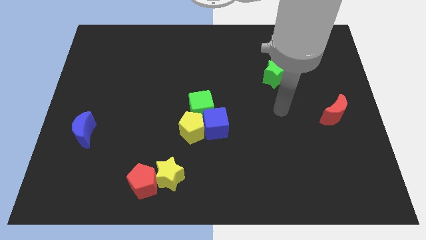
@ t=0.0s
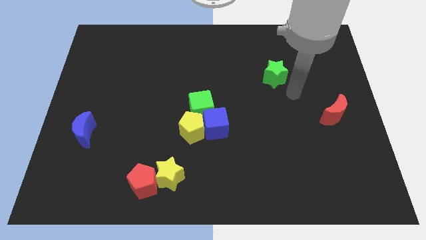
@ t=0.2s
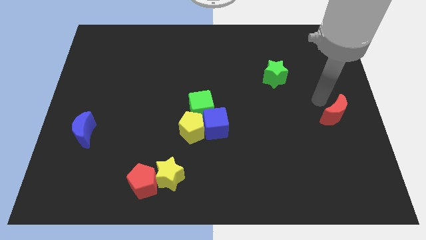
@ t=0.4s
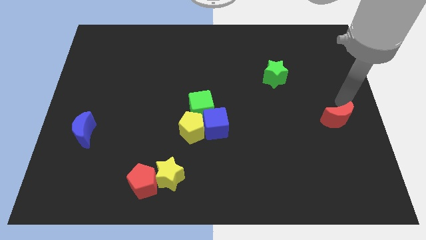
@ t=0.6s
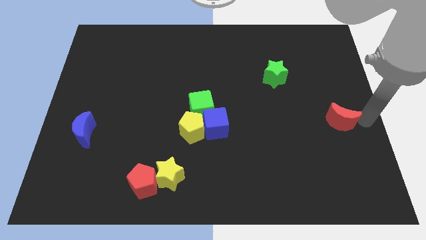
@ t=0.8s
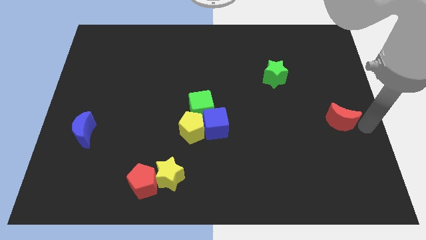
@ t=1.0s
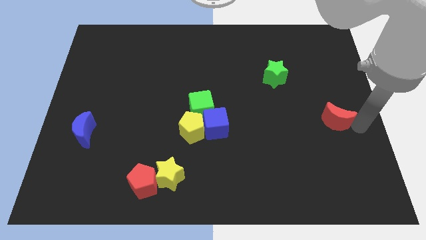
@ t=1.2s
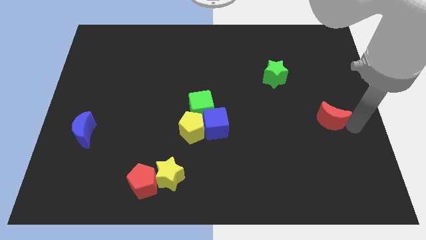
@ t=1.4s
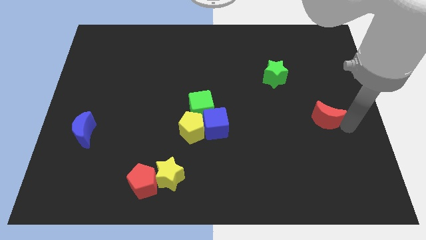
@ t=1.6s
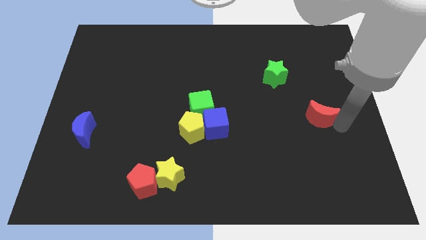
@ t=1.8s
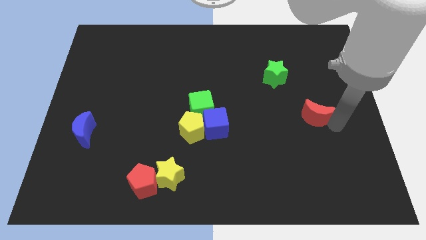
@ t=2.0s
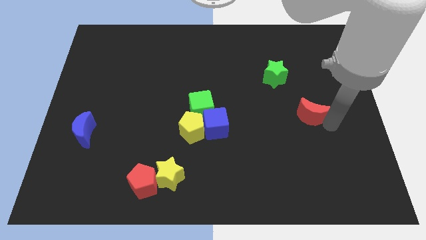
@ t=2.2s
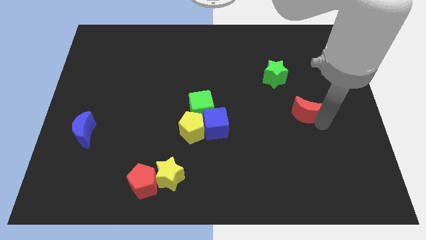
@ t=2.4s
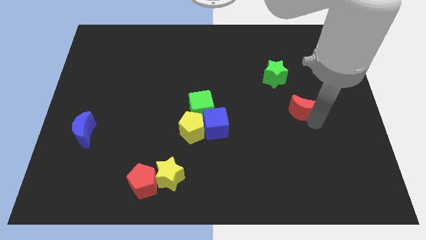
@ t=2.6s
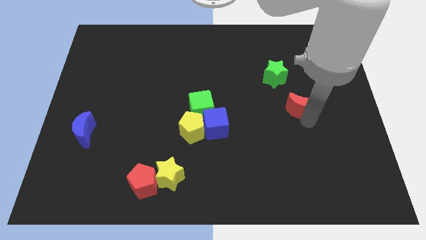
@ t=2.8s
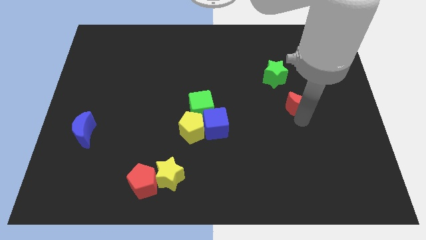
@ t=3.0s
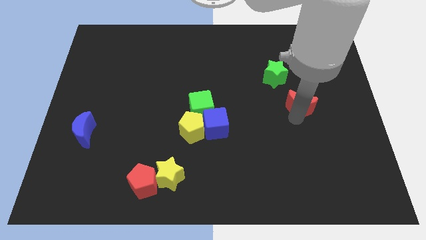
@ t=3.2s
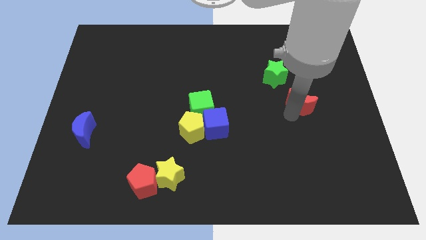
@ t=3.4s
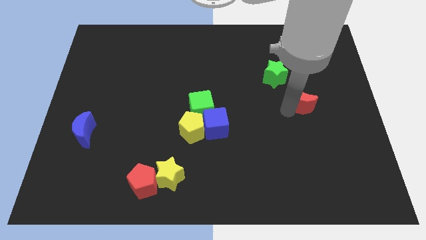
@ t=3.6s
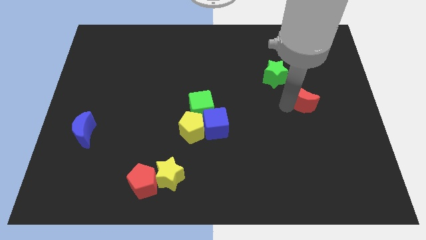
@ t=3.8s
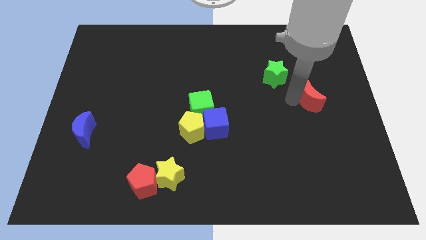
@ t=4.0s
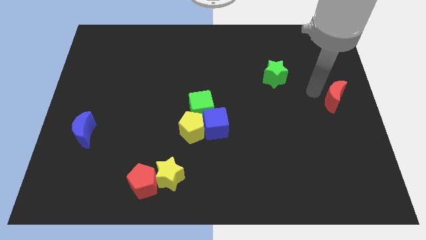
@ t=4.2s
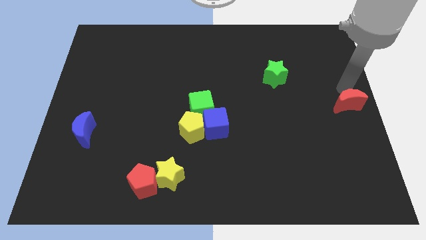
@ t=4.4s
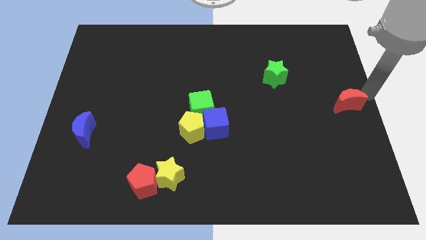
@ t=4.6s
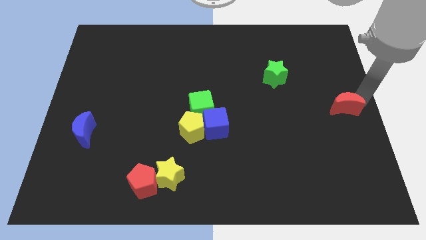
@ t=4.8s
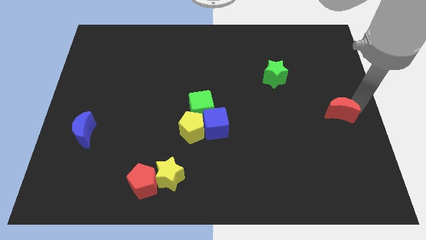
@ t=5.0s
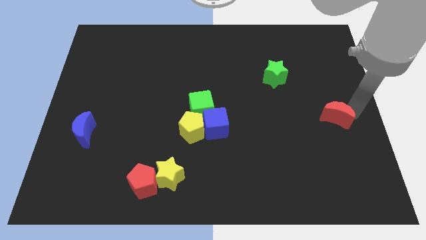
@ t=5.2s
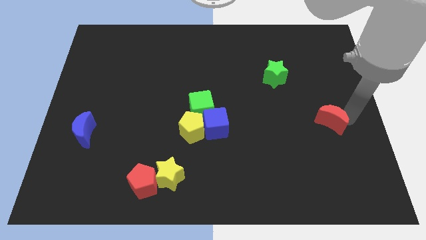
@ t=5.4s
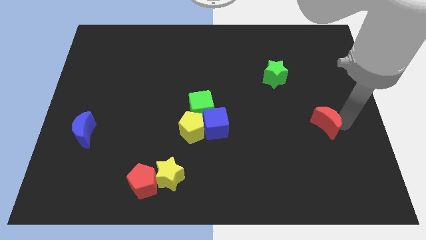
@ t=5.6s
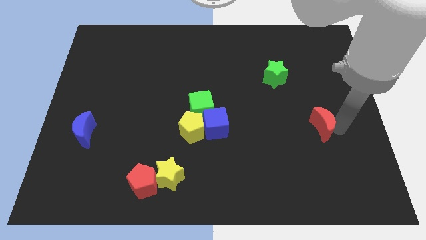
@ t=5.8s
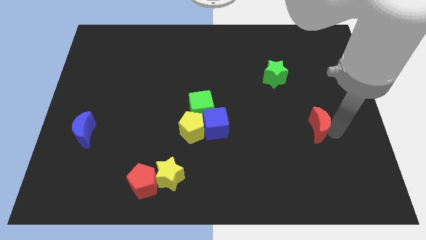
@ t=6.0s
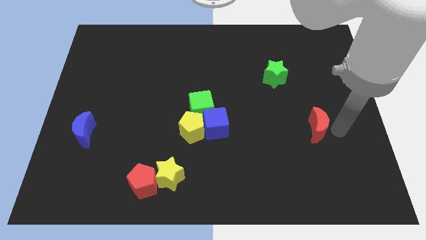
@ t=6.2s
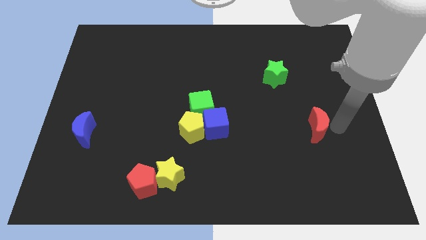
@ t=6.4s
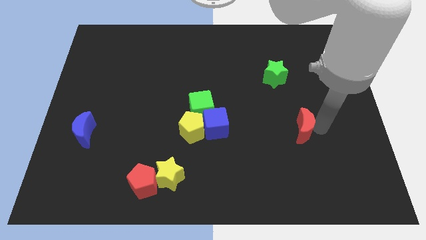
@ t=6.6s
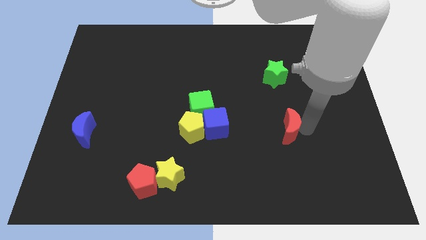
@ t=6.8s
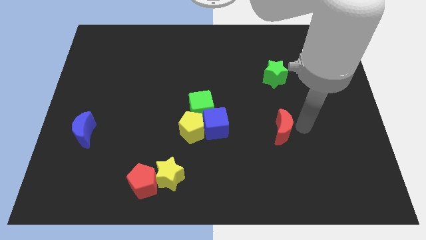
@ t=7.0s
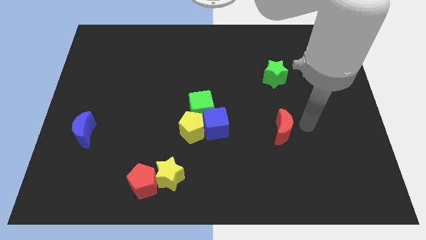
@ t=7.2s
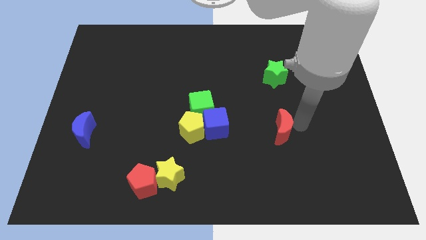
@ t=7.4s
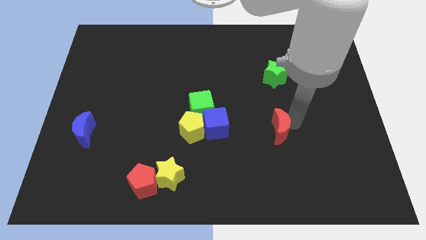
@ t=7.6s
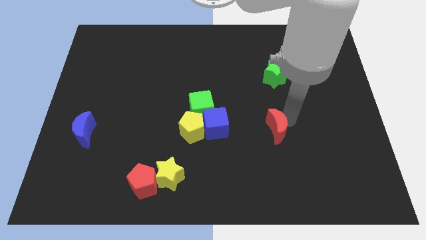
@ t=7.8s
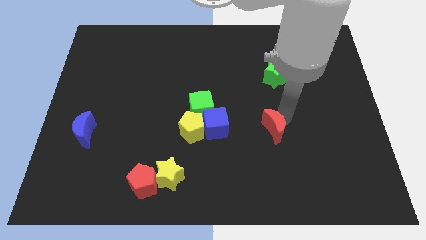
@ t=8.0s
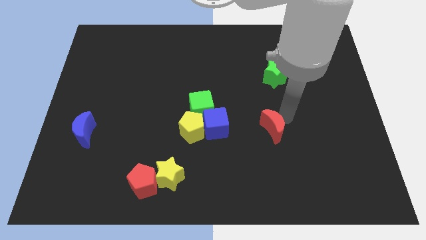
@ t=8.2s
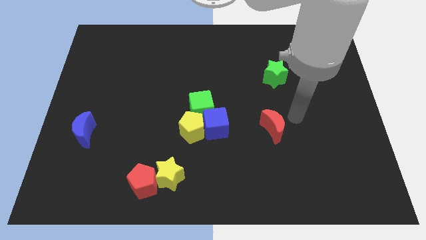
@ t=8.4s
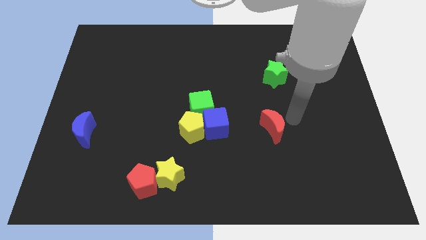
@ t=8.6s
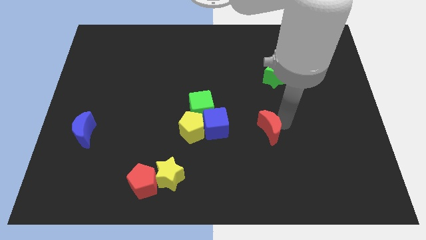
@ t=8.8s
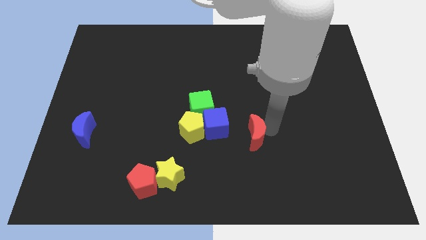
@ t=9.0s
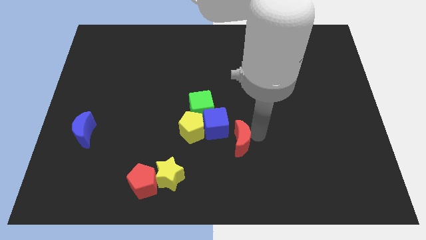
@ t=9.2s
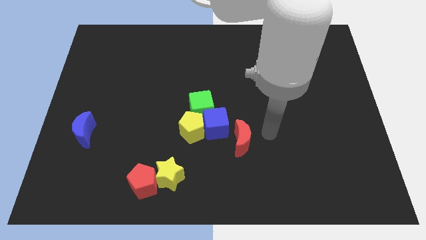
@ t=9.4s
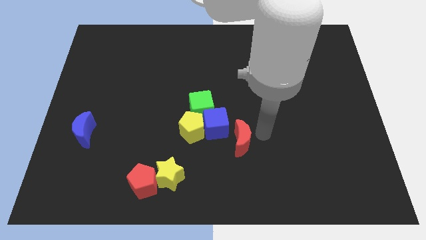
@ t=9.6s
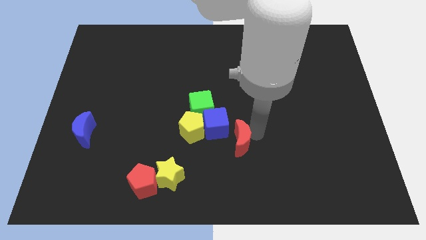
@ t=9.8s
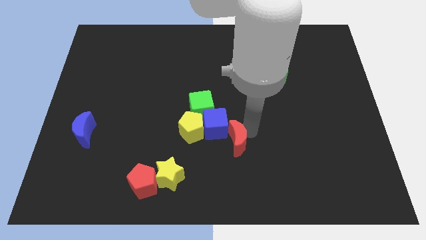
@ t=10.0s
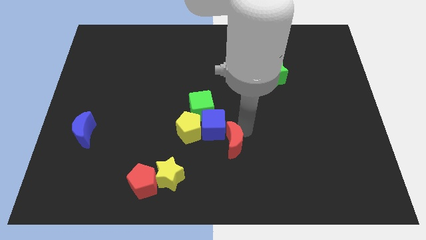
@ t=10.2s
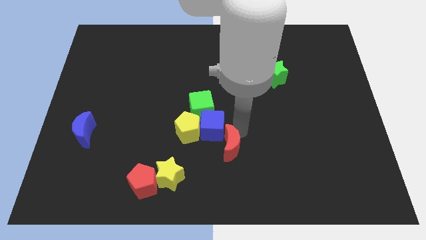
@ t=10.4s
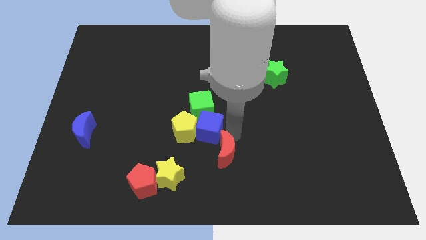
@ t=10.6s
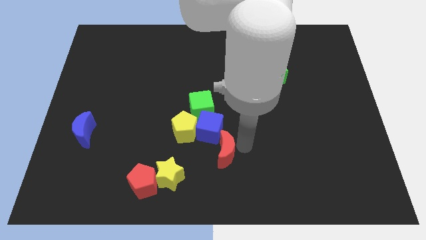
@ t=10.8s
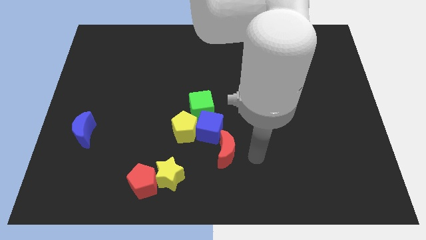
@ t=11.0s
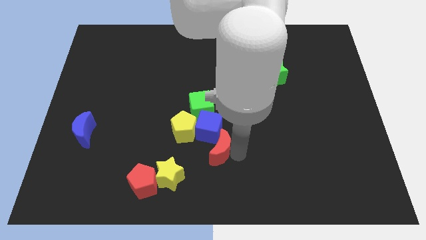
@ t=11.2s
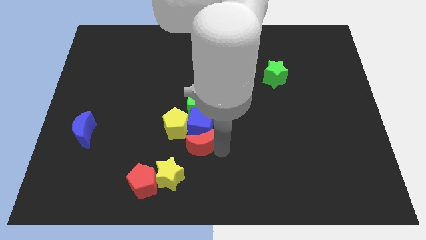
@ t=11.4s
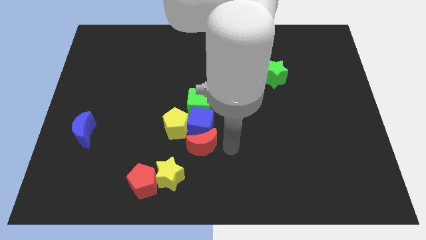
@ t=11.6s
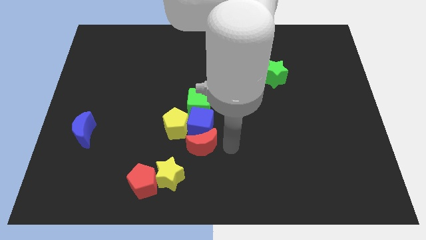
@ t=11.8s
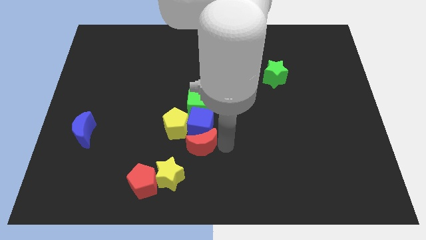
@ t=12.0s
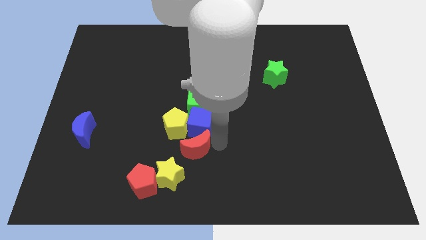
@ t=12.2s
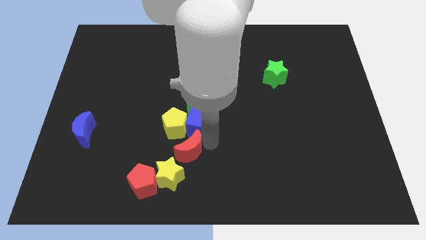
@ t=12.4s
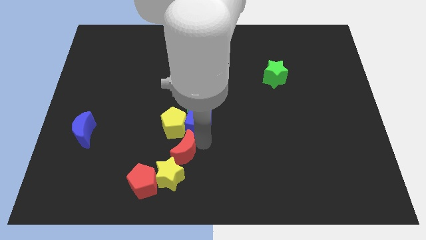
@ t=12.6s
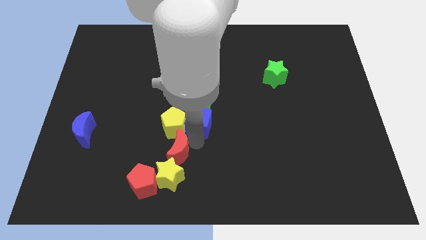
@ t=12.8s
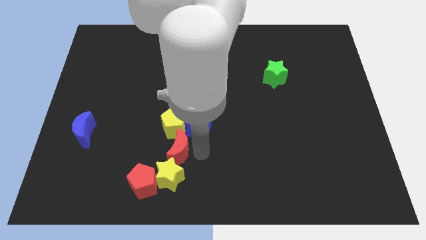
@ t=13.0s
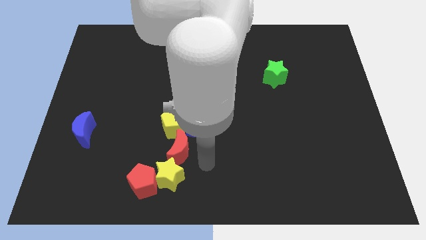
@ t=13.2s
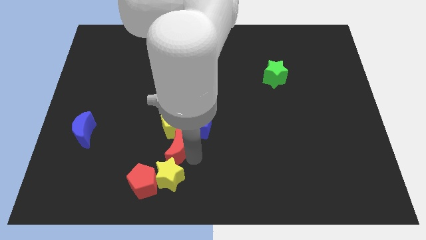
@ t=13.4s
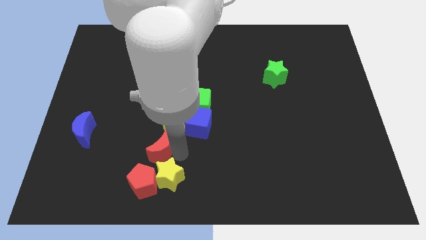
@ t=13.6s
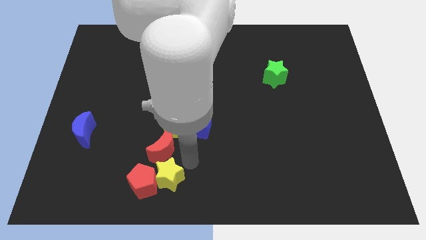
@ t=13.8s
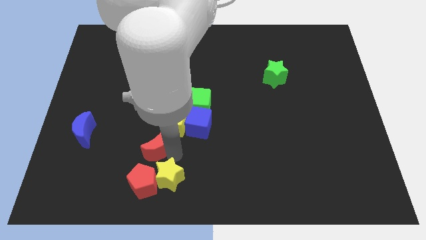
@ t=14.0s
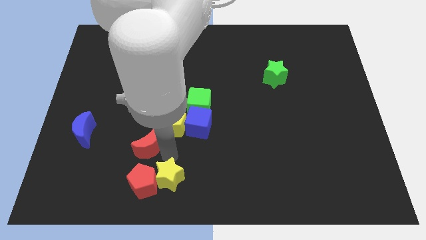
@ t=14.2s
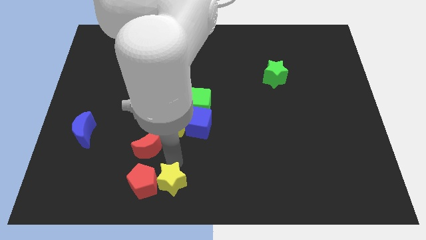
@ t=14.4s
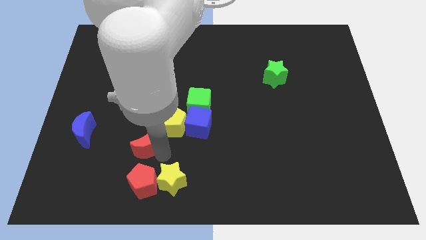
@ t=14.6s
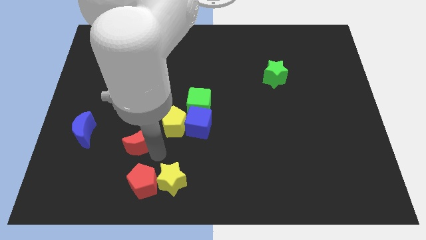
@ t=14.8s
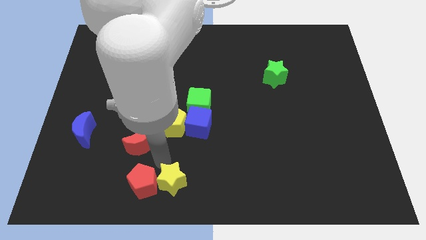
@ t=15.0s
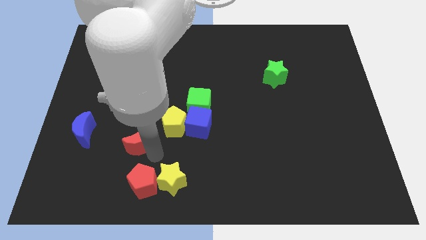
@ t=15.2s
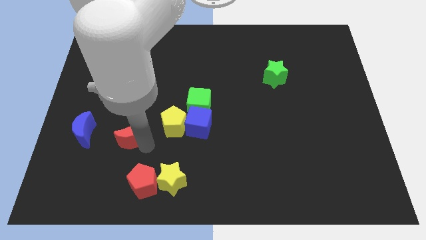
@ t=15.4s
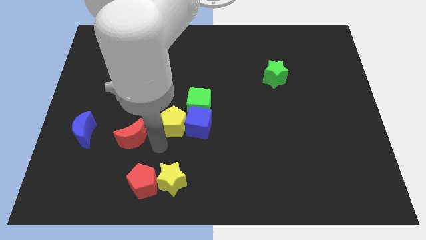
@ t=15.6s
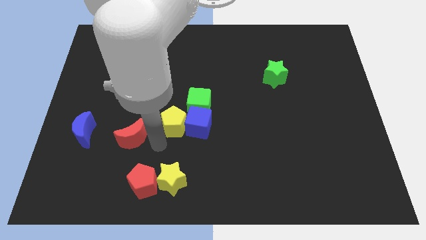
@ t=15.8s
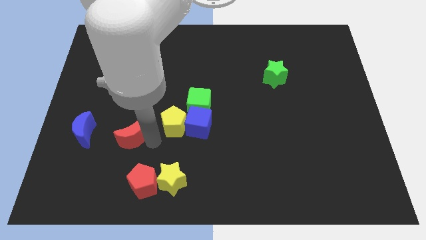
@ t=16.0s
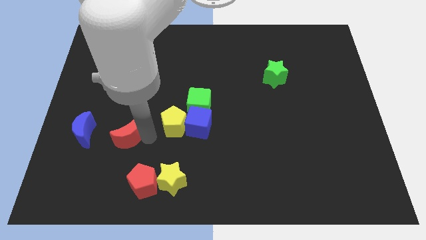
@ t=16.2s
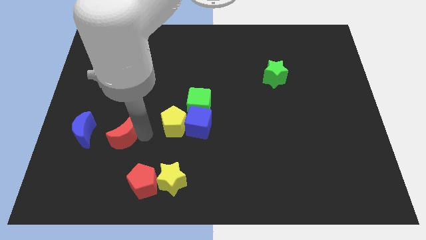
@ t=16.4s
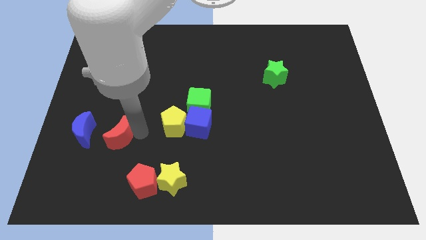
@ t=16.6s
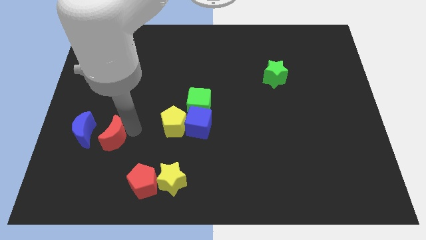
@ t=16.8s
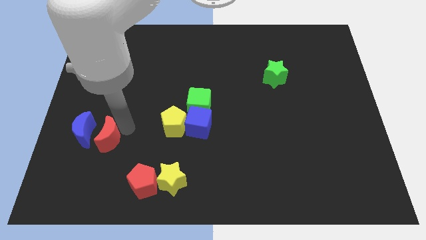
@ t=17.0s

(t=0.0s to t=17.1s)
put the red moon towards the blue moon
